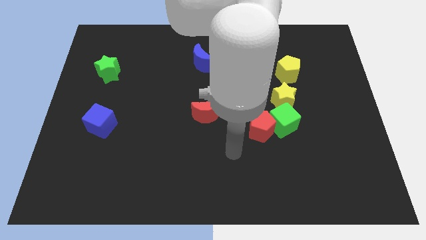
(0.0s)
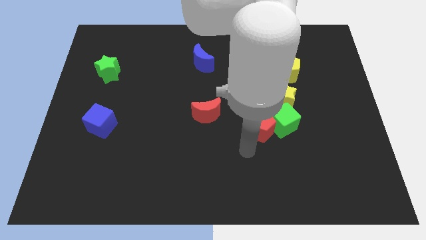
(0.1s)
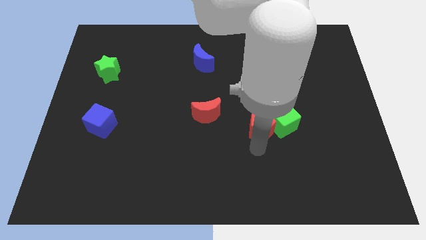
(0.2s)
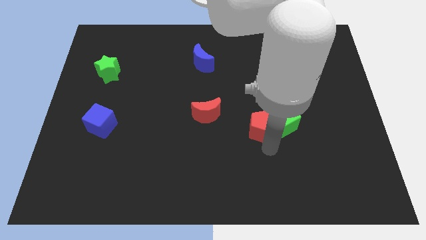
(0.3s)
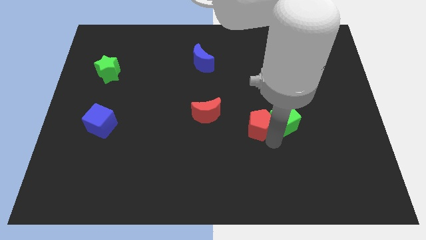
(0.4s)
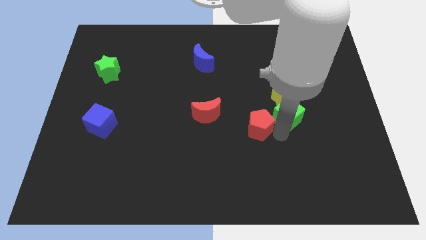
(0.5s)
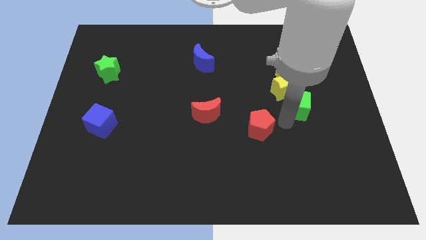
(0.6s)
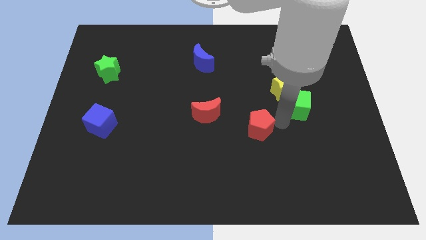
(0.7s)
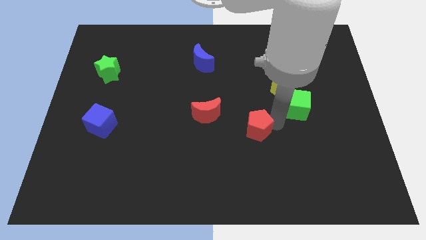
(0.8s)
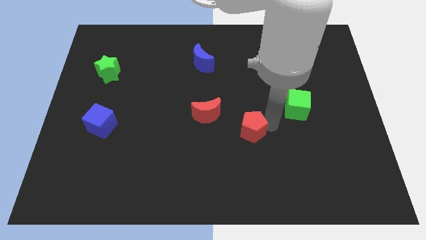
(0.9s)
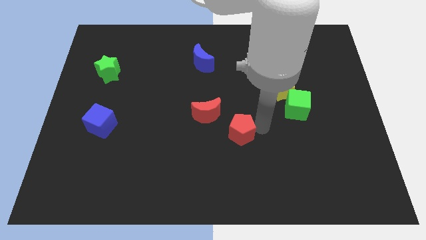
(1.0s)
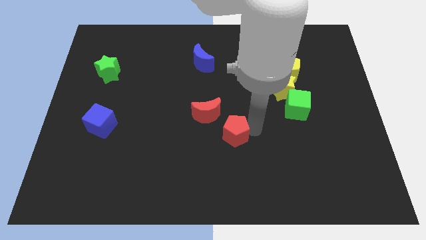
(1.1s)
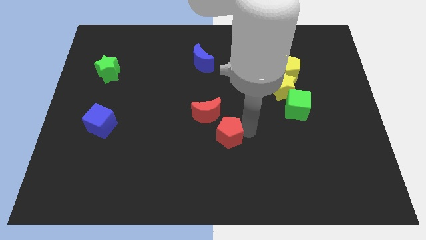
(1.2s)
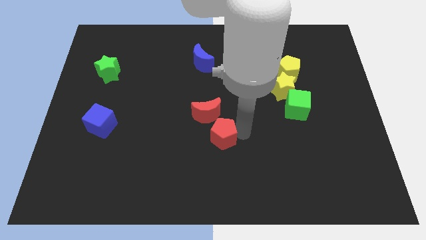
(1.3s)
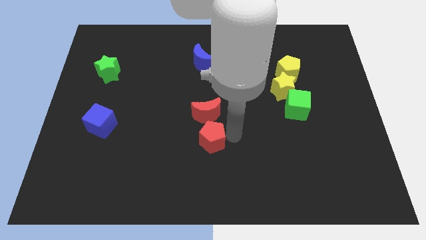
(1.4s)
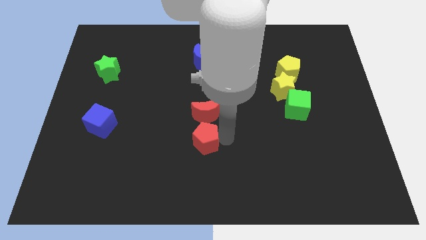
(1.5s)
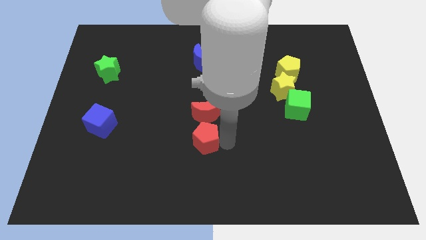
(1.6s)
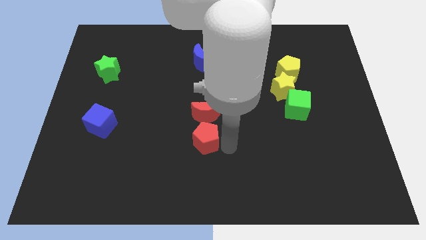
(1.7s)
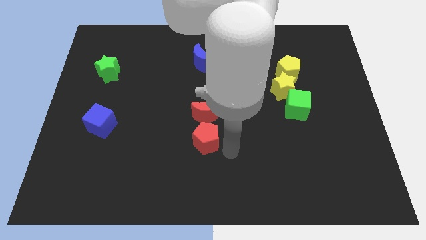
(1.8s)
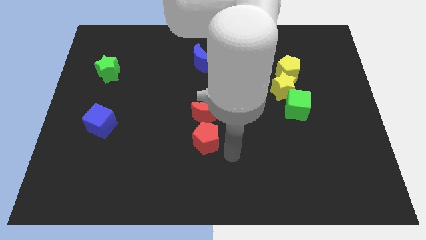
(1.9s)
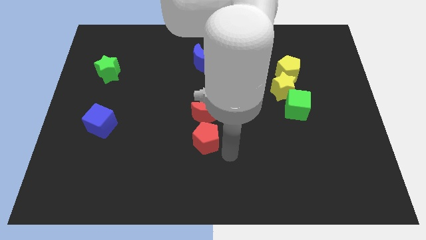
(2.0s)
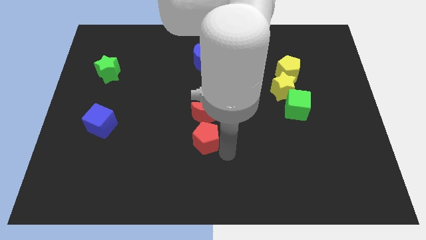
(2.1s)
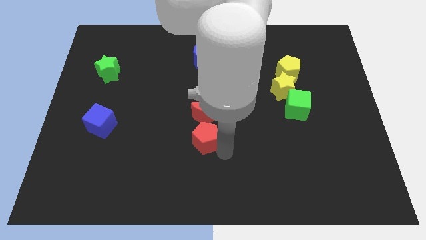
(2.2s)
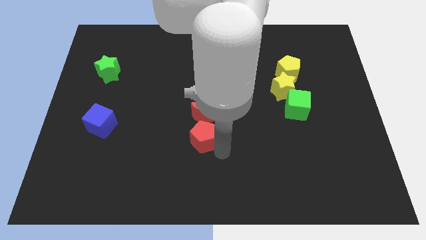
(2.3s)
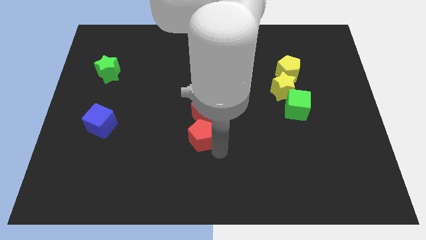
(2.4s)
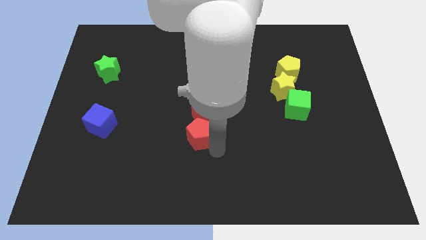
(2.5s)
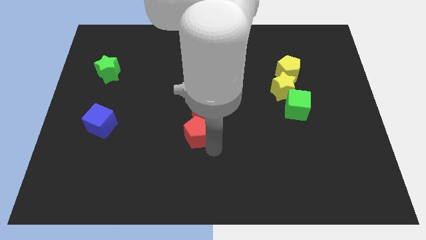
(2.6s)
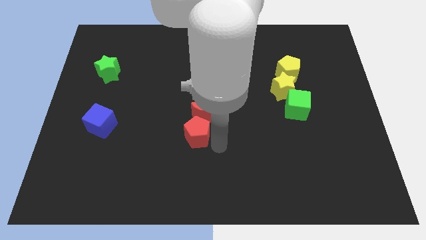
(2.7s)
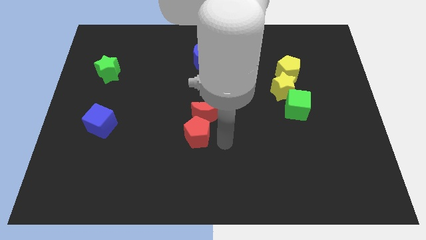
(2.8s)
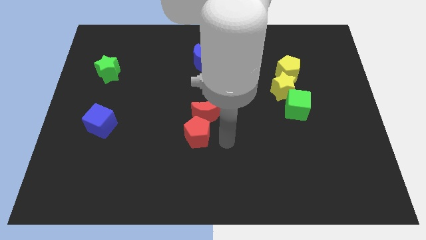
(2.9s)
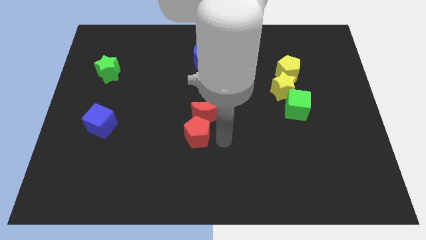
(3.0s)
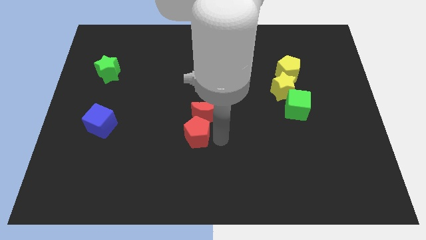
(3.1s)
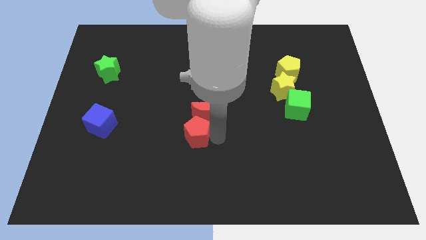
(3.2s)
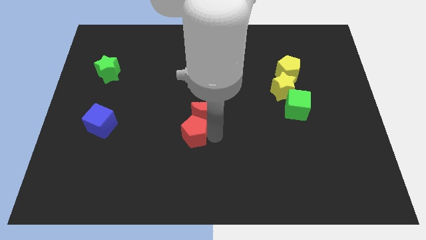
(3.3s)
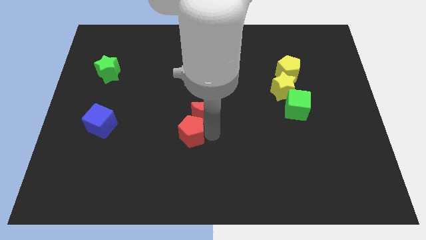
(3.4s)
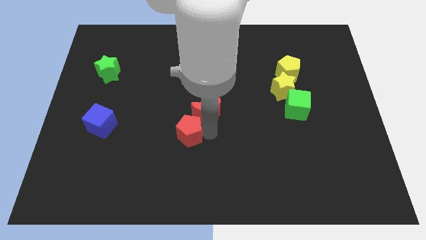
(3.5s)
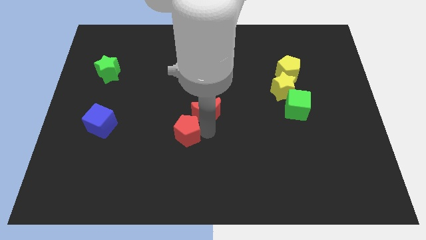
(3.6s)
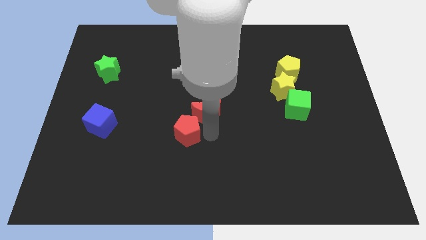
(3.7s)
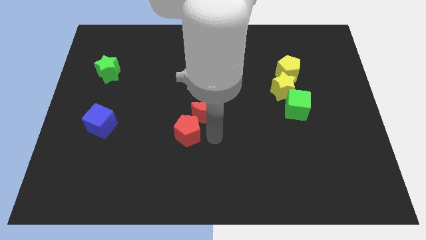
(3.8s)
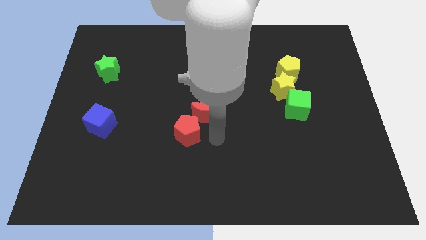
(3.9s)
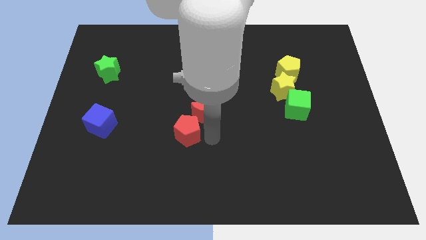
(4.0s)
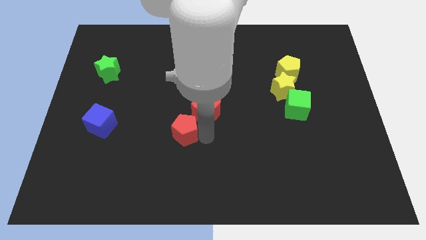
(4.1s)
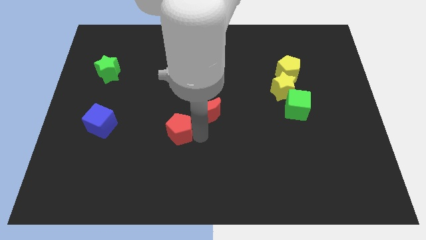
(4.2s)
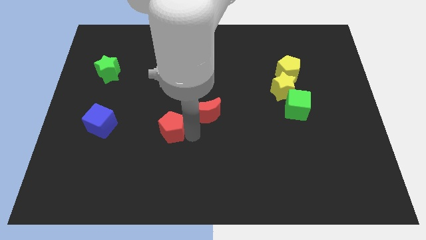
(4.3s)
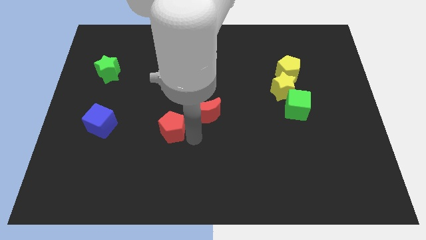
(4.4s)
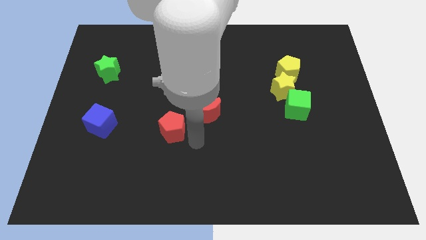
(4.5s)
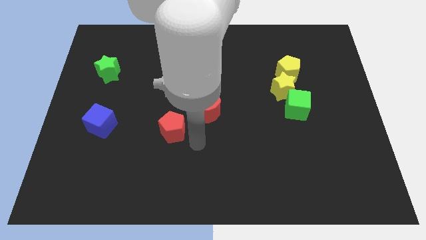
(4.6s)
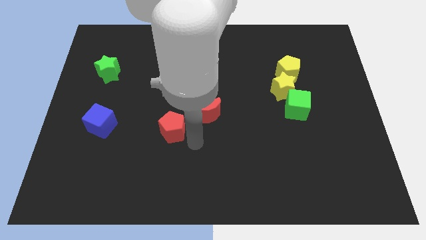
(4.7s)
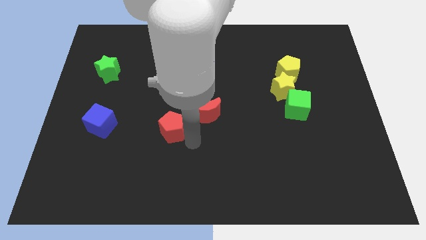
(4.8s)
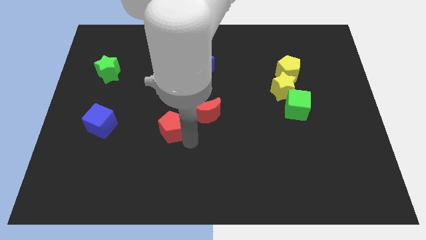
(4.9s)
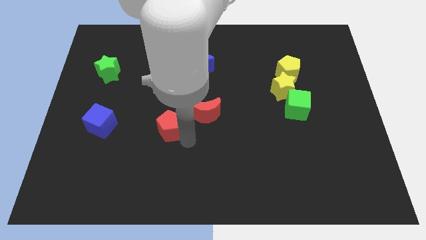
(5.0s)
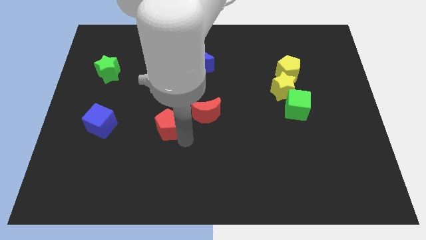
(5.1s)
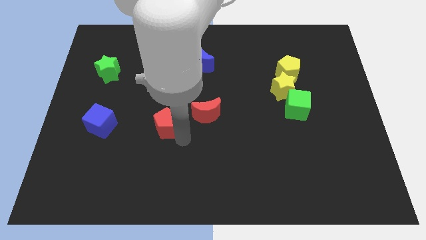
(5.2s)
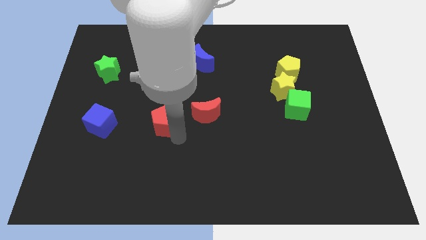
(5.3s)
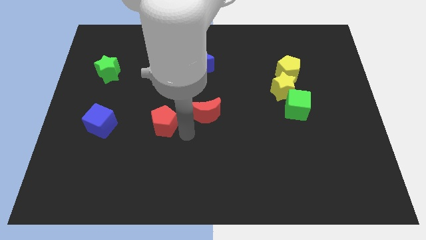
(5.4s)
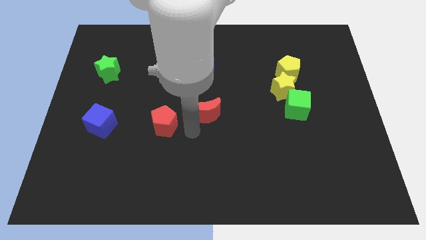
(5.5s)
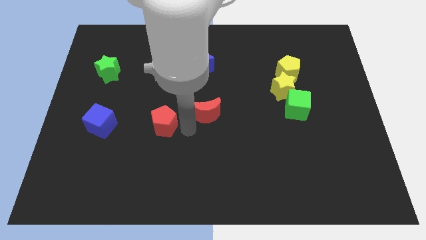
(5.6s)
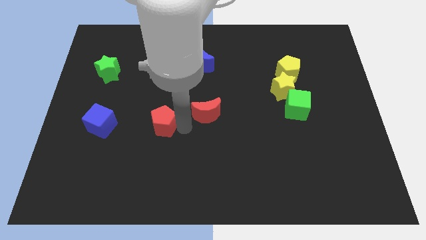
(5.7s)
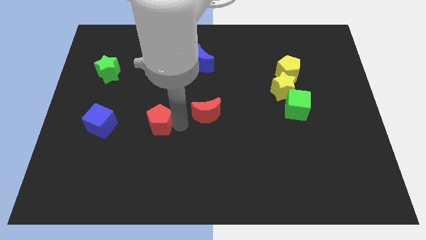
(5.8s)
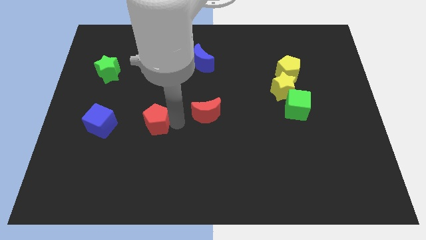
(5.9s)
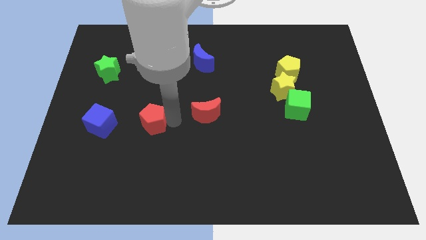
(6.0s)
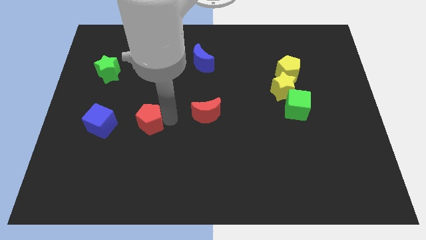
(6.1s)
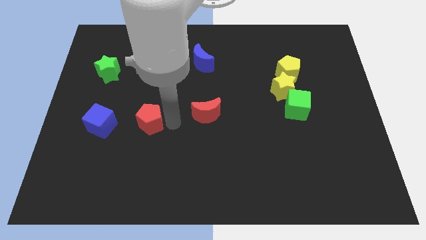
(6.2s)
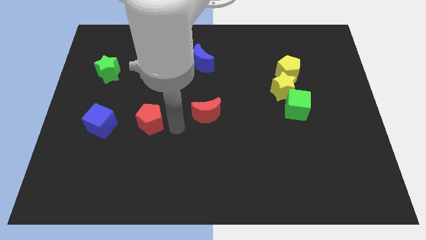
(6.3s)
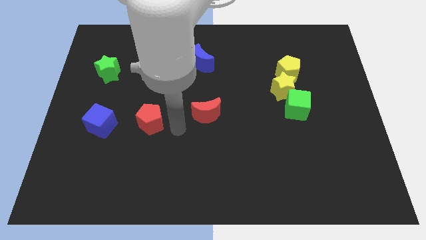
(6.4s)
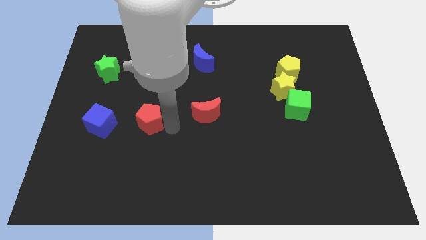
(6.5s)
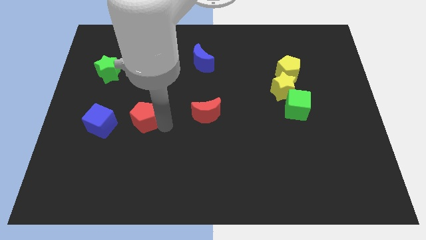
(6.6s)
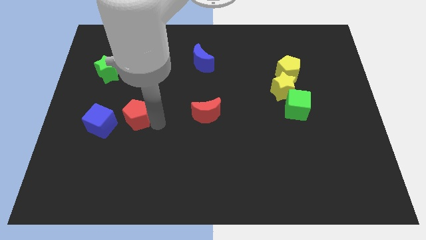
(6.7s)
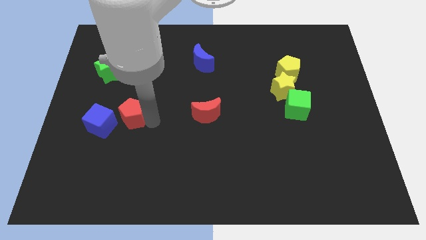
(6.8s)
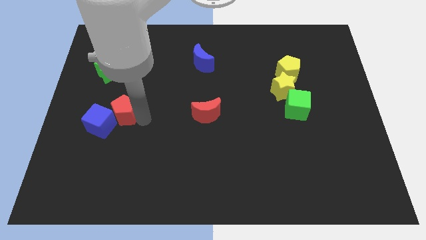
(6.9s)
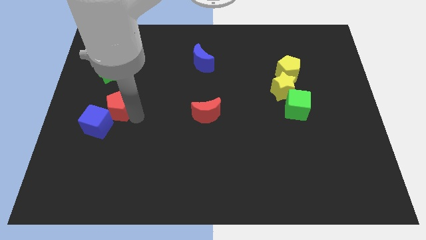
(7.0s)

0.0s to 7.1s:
put the red pentagon below the green star

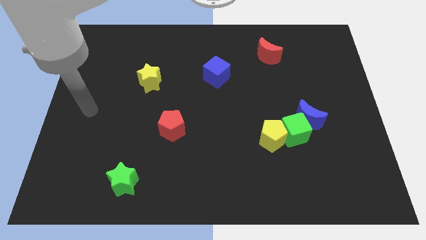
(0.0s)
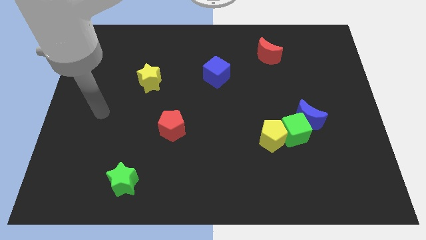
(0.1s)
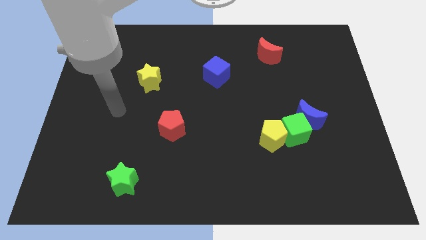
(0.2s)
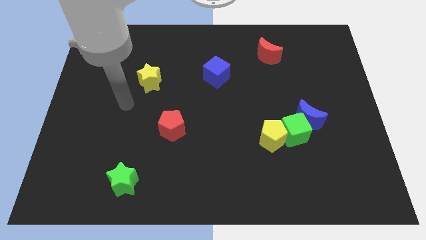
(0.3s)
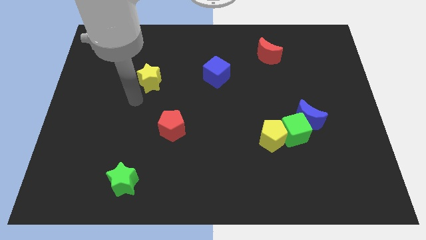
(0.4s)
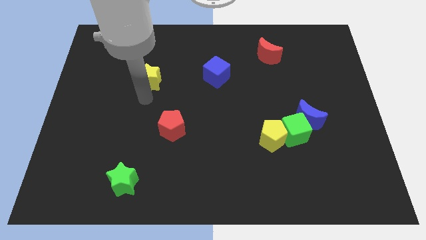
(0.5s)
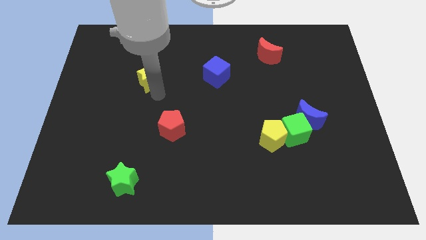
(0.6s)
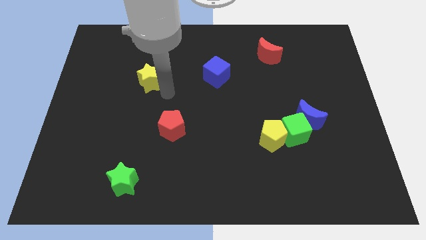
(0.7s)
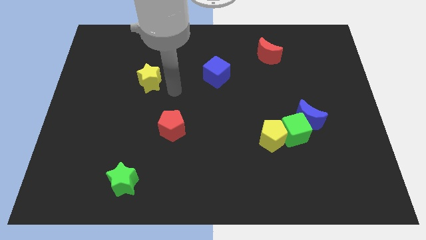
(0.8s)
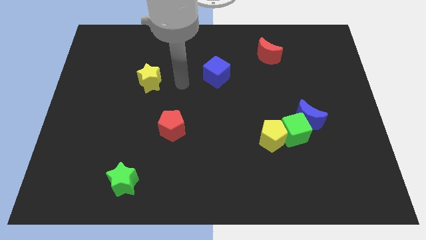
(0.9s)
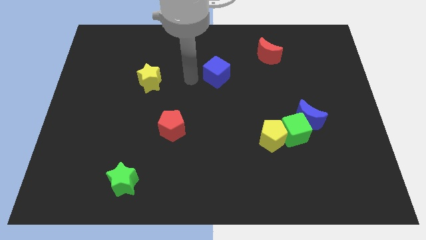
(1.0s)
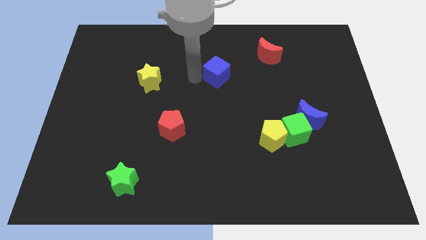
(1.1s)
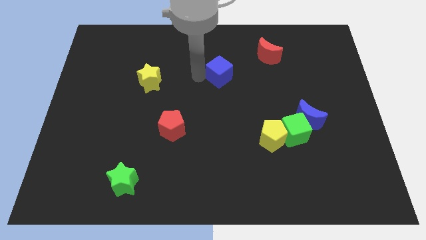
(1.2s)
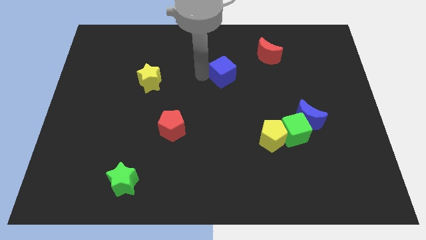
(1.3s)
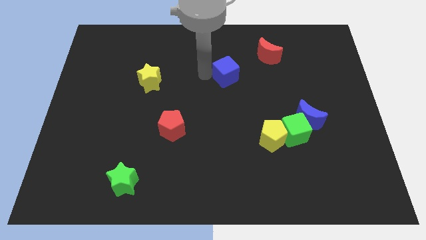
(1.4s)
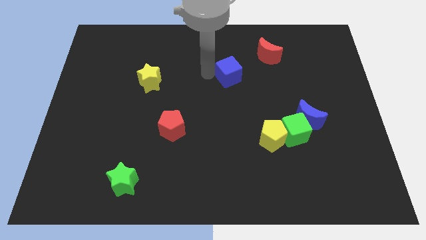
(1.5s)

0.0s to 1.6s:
put the blue cube diagonally down and to the left of the red moon
